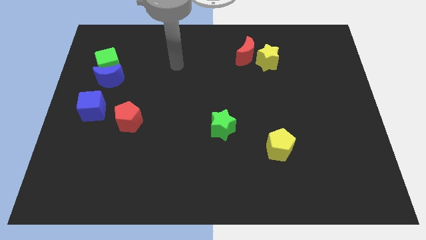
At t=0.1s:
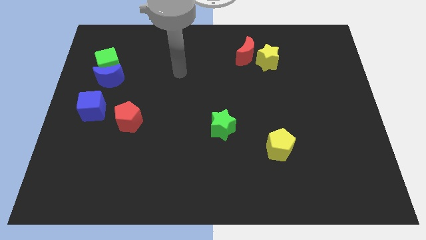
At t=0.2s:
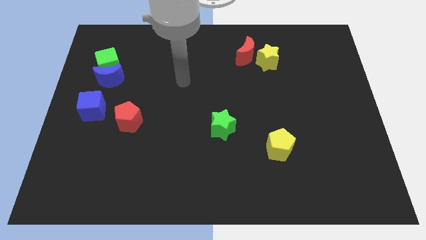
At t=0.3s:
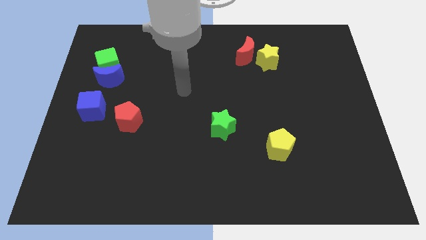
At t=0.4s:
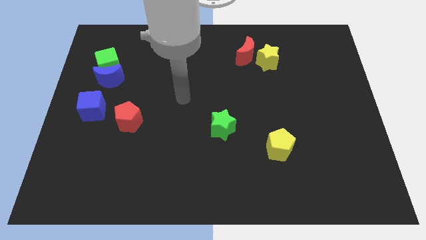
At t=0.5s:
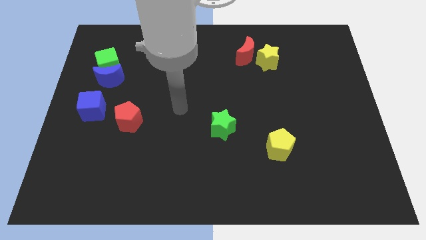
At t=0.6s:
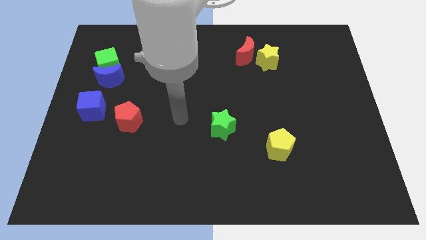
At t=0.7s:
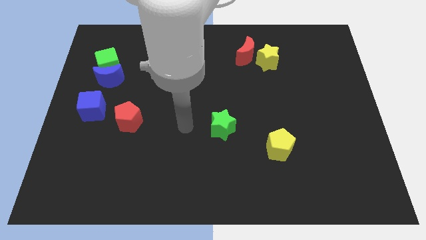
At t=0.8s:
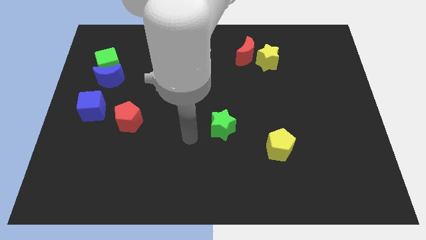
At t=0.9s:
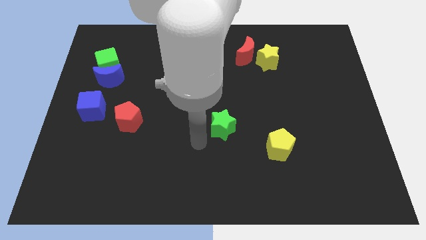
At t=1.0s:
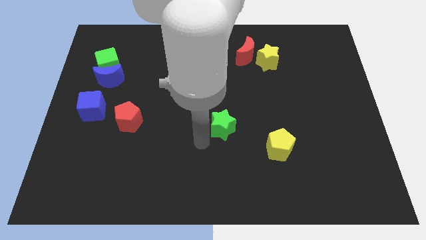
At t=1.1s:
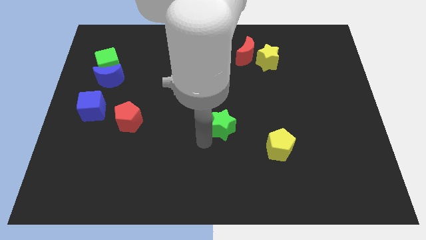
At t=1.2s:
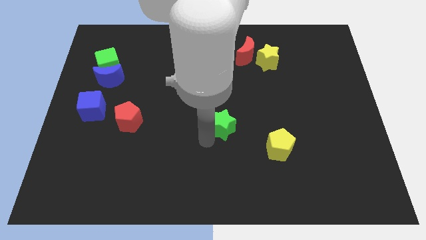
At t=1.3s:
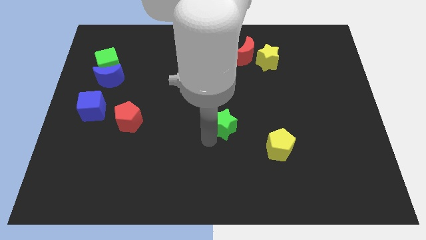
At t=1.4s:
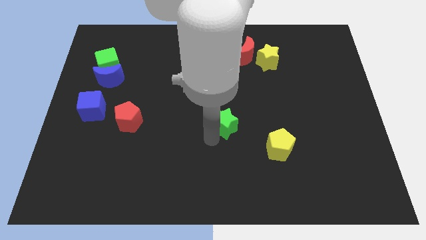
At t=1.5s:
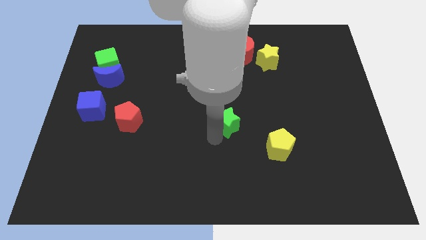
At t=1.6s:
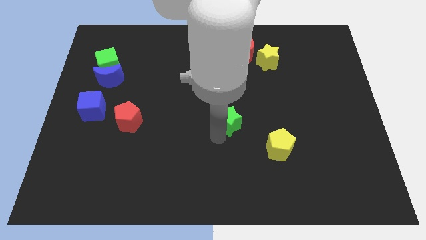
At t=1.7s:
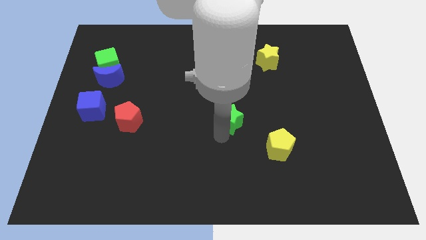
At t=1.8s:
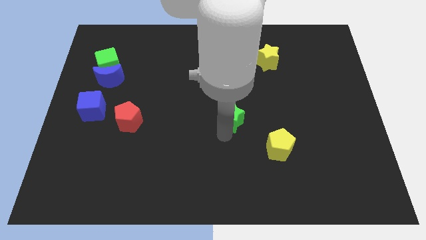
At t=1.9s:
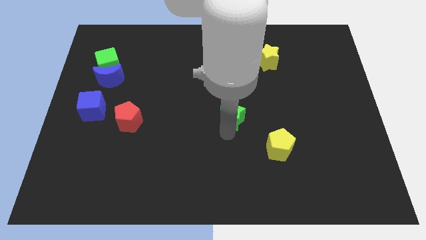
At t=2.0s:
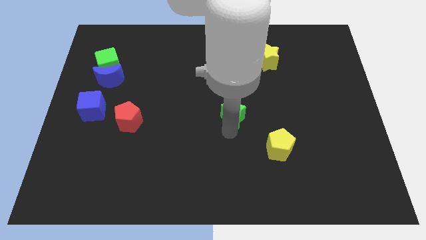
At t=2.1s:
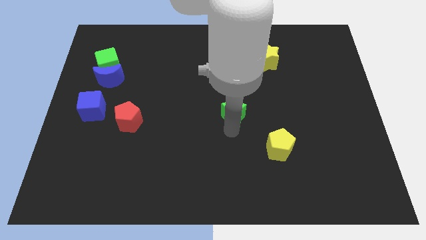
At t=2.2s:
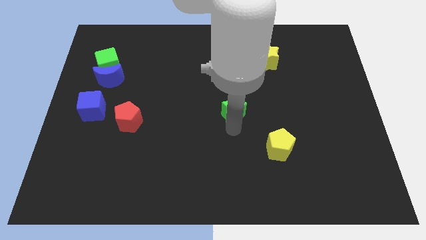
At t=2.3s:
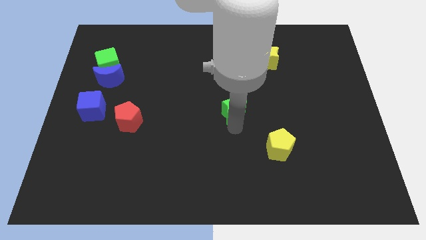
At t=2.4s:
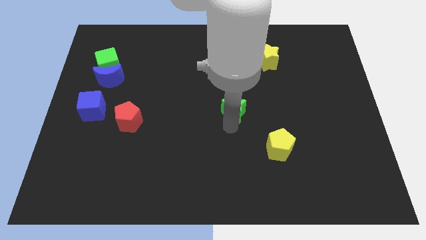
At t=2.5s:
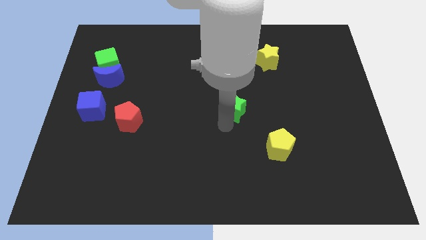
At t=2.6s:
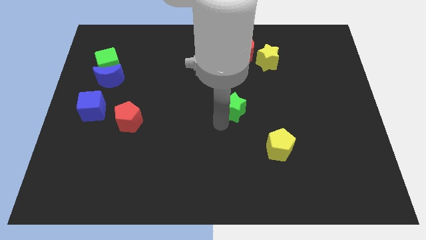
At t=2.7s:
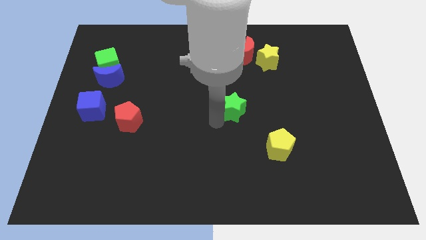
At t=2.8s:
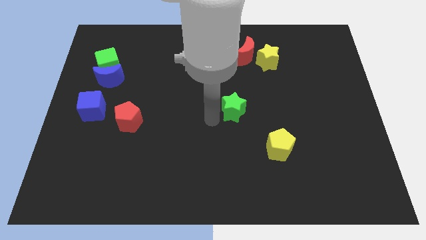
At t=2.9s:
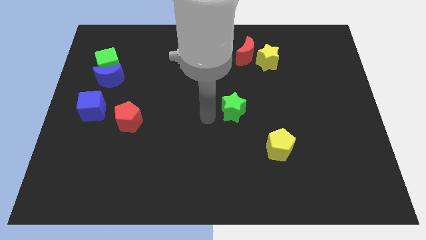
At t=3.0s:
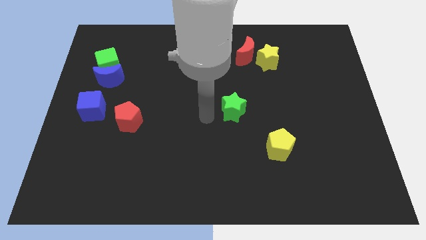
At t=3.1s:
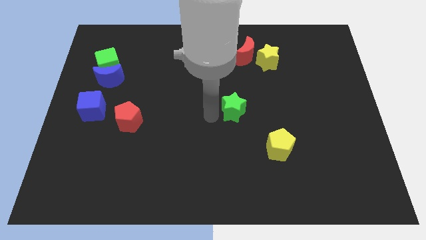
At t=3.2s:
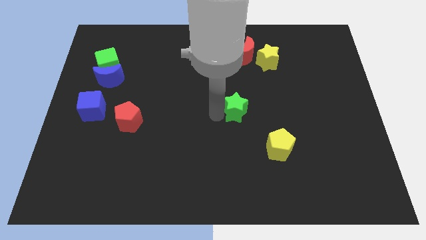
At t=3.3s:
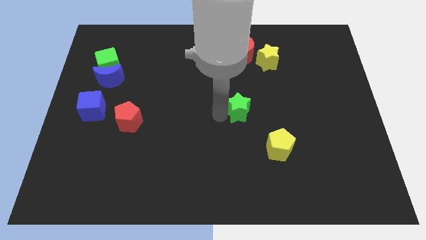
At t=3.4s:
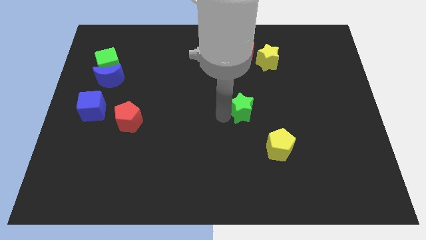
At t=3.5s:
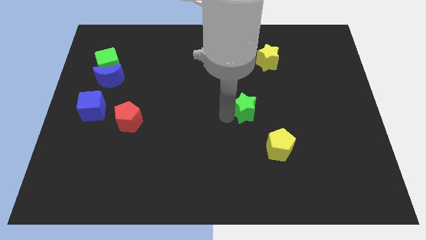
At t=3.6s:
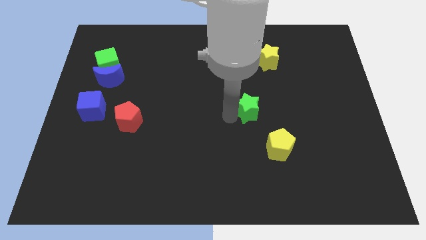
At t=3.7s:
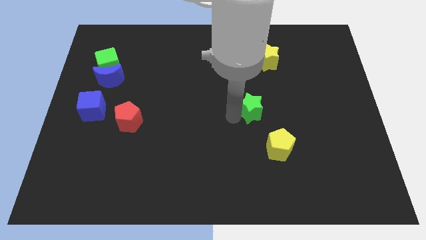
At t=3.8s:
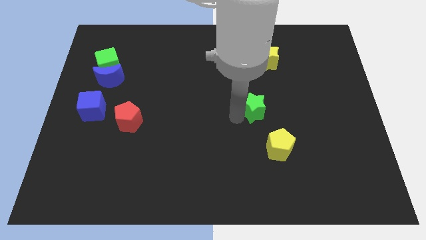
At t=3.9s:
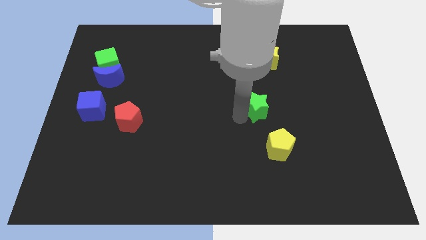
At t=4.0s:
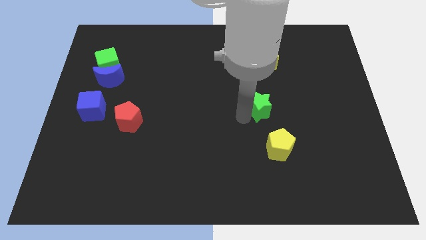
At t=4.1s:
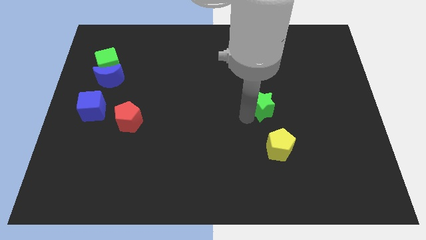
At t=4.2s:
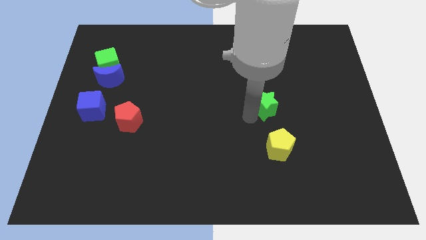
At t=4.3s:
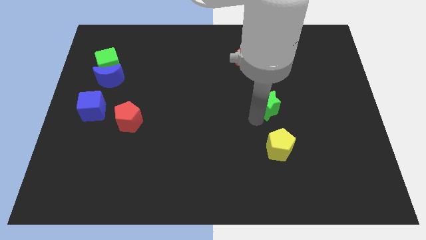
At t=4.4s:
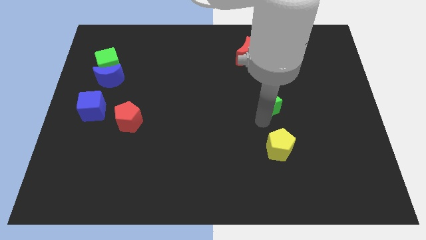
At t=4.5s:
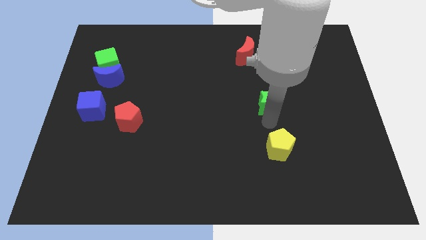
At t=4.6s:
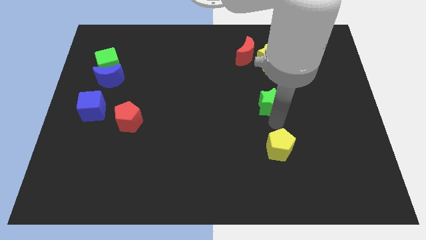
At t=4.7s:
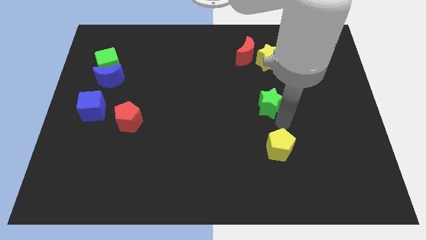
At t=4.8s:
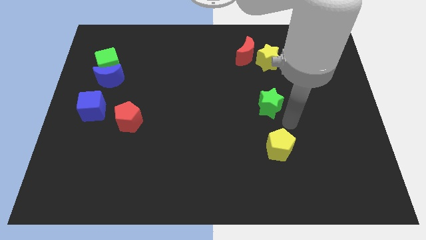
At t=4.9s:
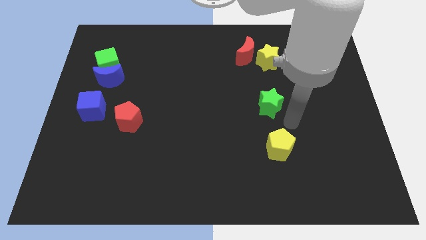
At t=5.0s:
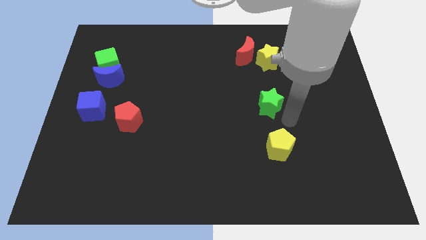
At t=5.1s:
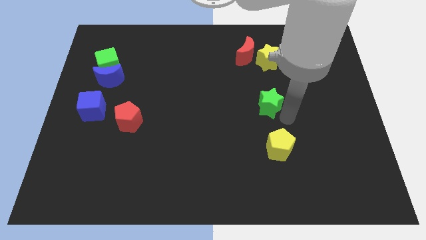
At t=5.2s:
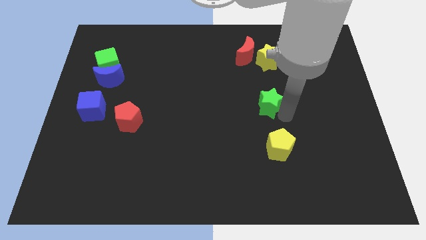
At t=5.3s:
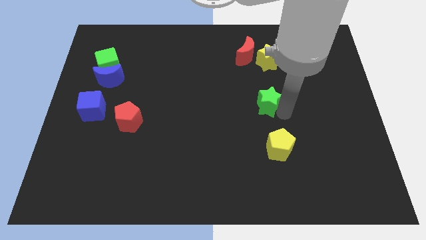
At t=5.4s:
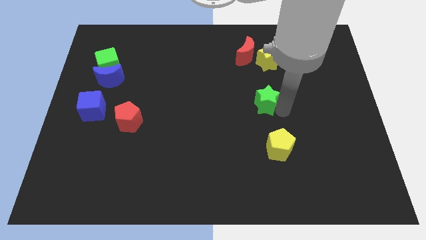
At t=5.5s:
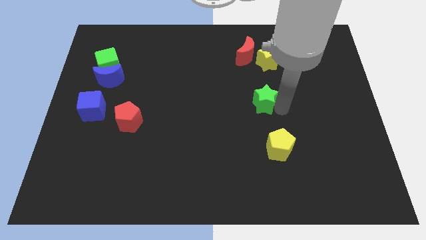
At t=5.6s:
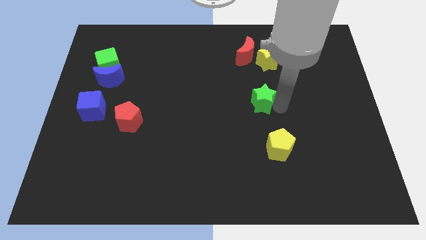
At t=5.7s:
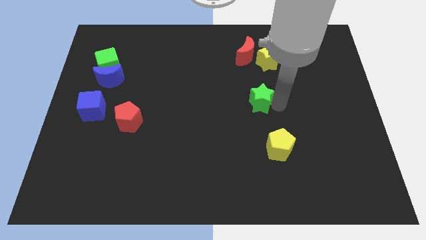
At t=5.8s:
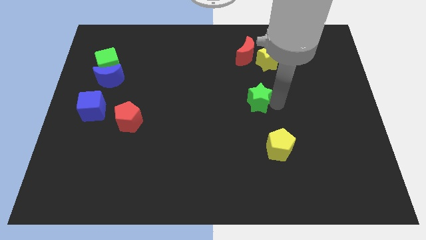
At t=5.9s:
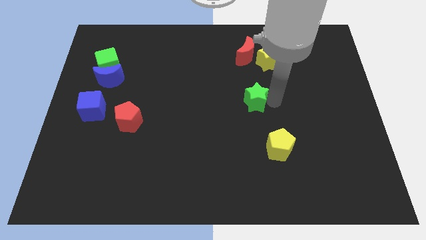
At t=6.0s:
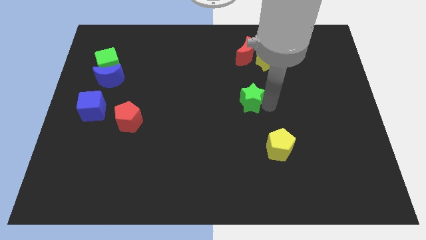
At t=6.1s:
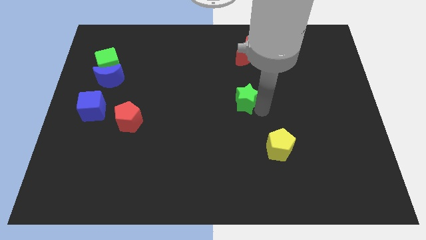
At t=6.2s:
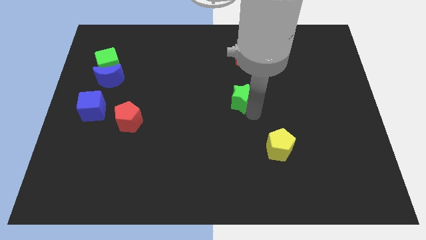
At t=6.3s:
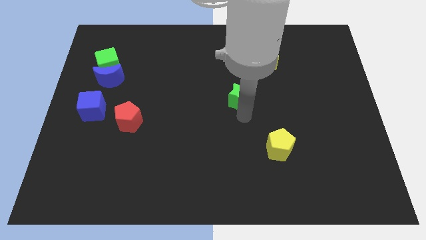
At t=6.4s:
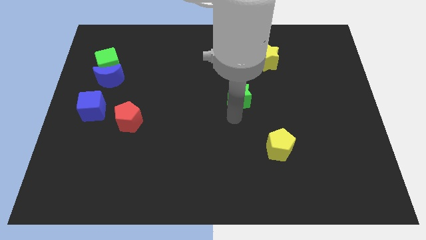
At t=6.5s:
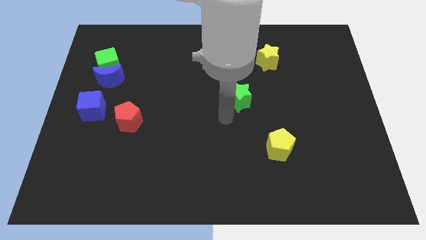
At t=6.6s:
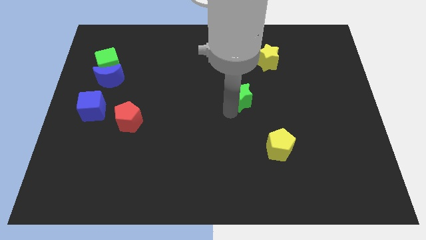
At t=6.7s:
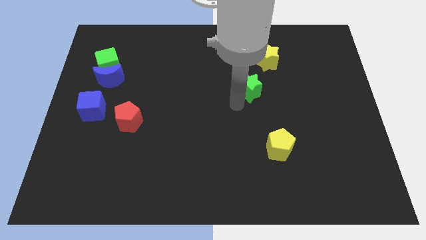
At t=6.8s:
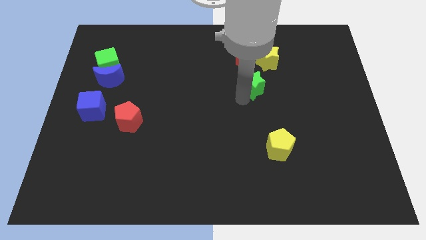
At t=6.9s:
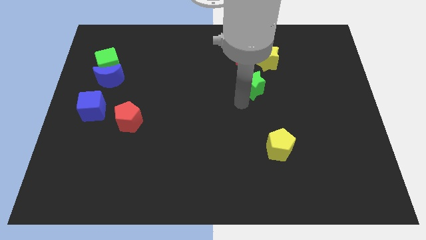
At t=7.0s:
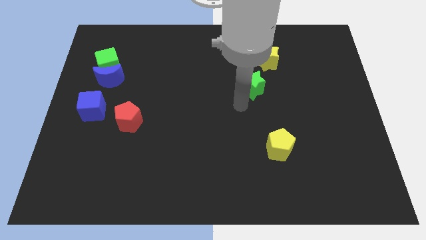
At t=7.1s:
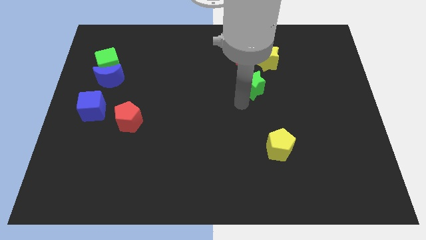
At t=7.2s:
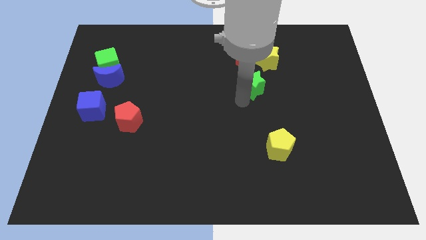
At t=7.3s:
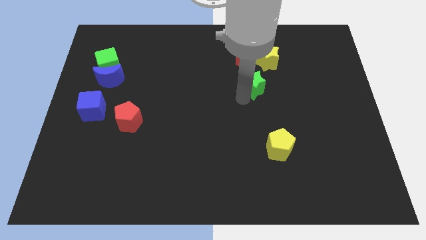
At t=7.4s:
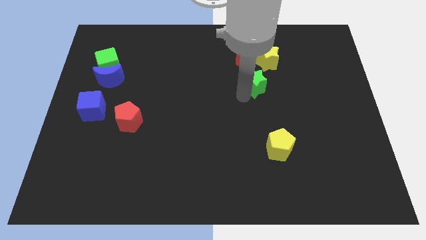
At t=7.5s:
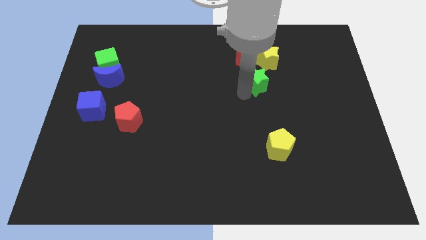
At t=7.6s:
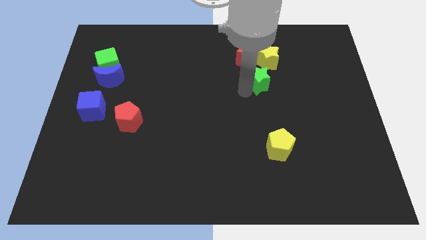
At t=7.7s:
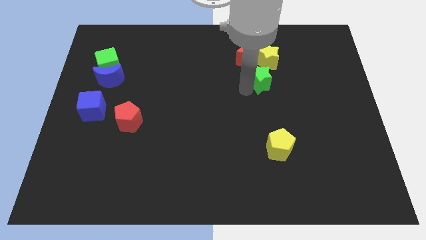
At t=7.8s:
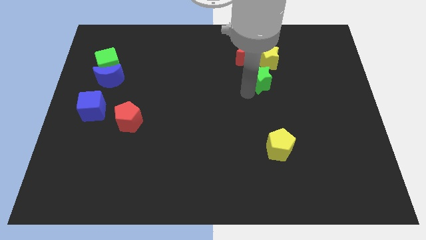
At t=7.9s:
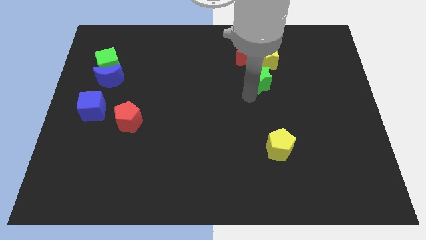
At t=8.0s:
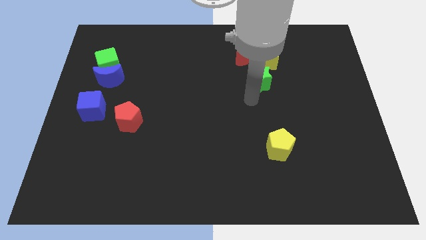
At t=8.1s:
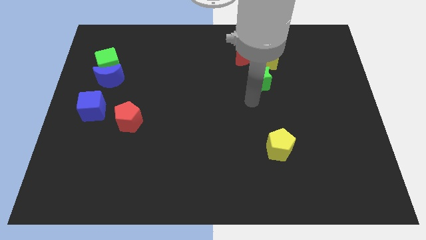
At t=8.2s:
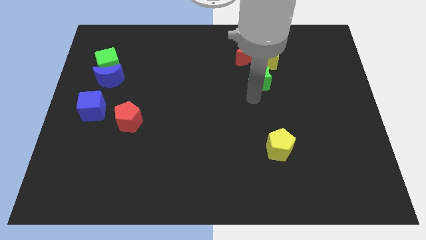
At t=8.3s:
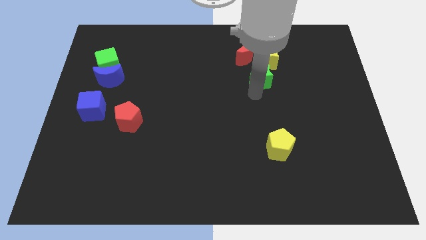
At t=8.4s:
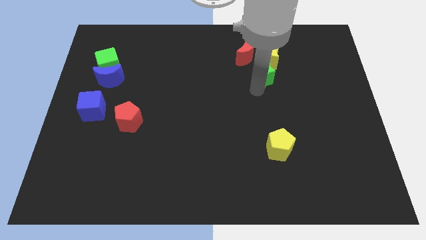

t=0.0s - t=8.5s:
put the green star close to the yellow star
